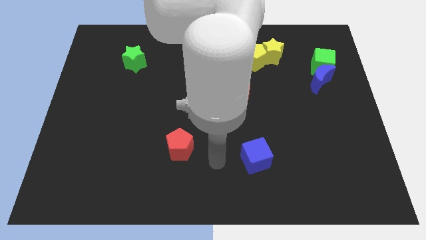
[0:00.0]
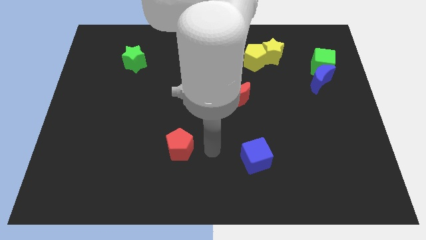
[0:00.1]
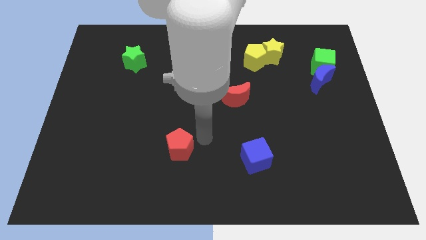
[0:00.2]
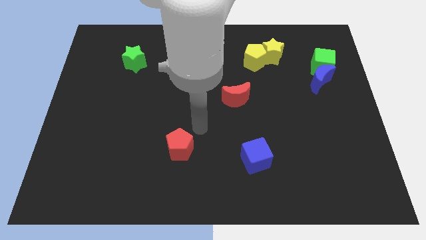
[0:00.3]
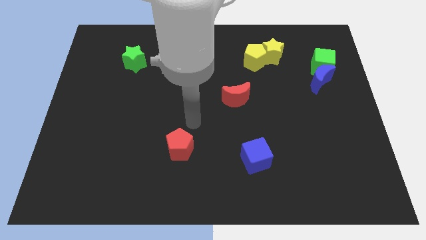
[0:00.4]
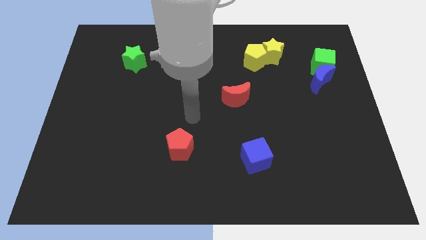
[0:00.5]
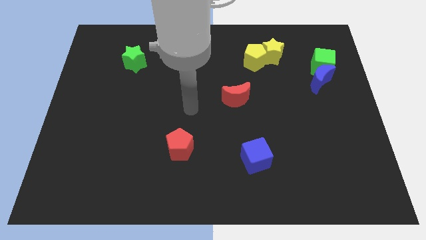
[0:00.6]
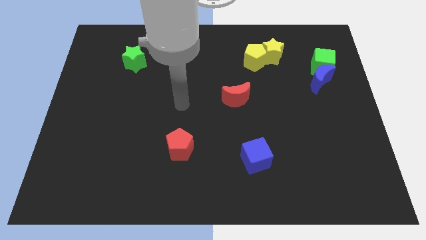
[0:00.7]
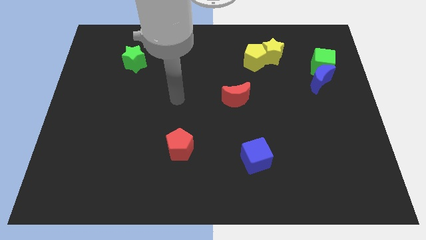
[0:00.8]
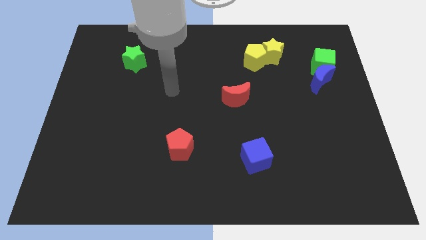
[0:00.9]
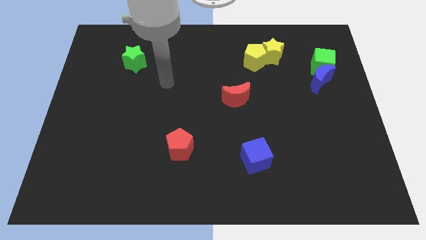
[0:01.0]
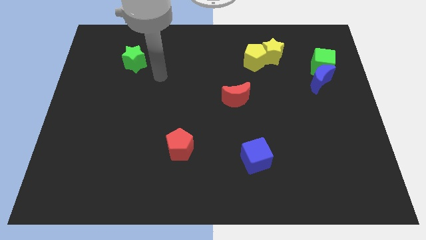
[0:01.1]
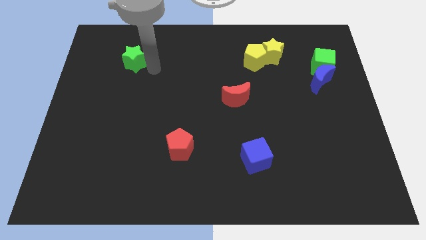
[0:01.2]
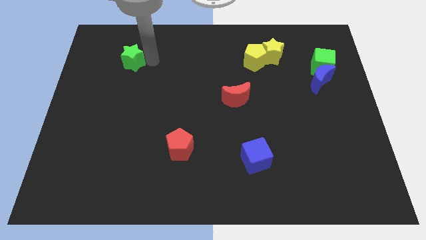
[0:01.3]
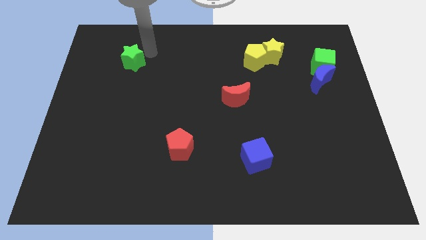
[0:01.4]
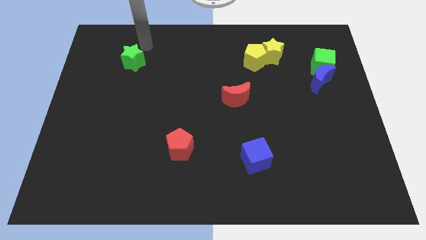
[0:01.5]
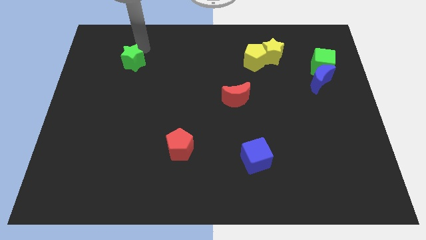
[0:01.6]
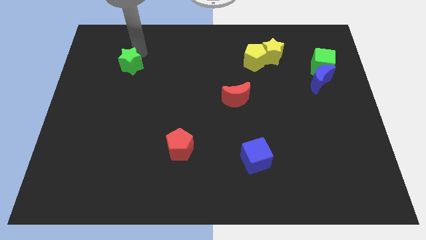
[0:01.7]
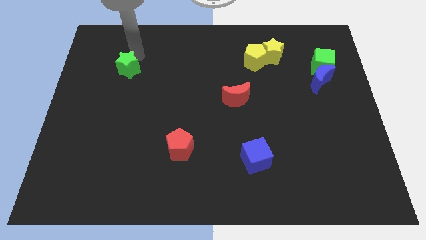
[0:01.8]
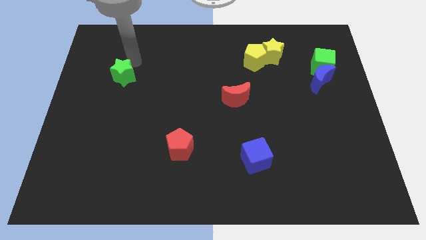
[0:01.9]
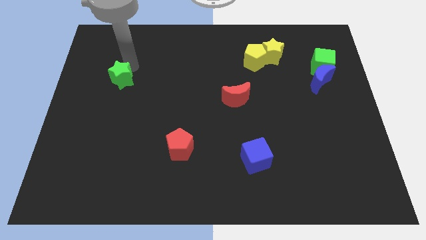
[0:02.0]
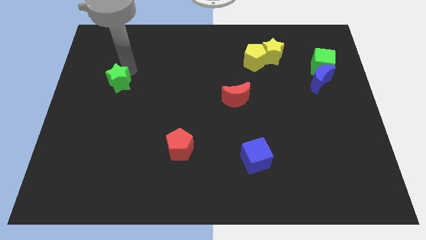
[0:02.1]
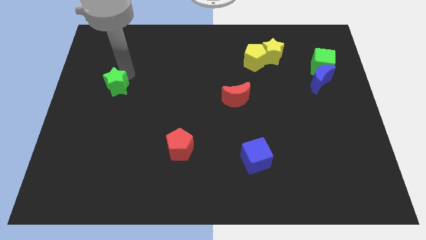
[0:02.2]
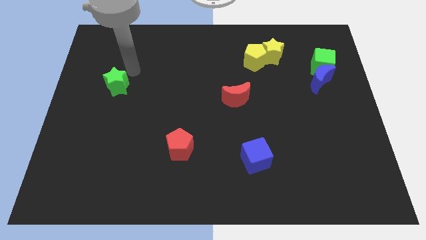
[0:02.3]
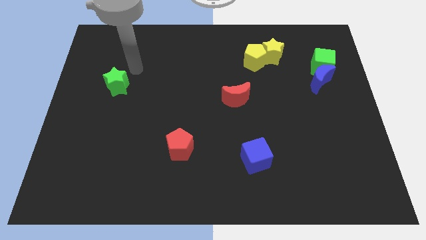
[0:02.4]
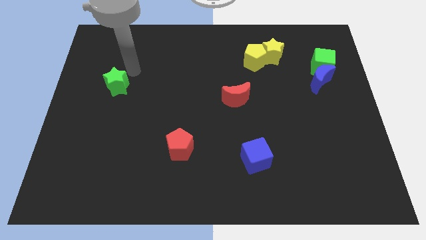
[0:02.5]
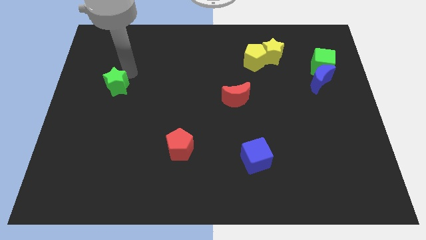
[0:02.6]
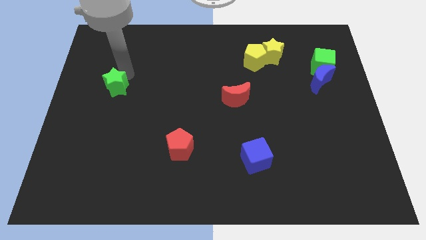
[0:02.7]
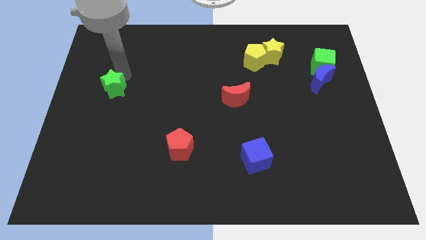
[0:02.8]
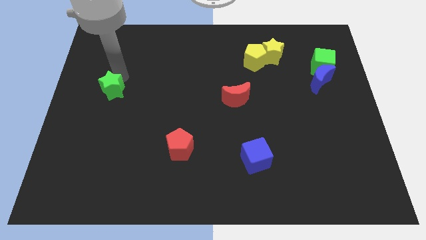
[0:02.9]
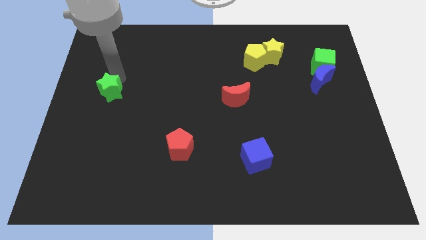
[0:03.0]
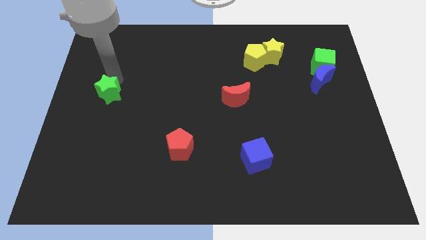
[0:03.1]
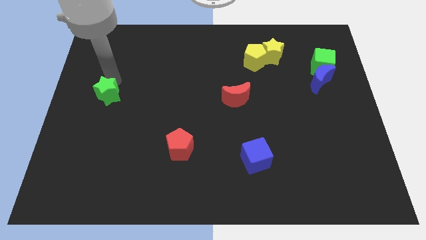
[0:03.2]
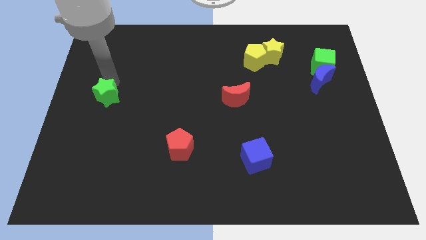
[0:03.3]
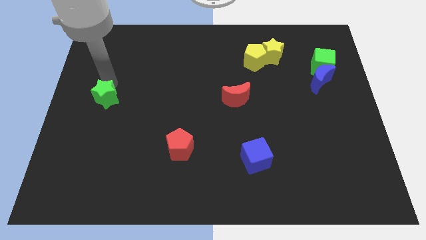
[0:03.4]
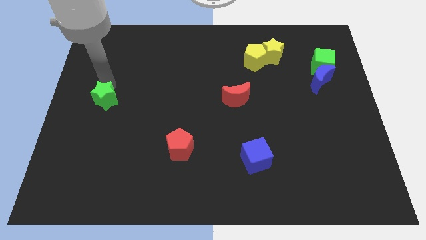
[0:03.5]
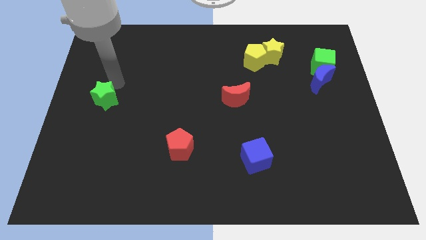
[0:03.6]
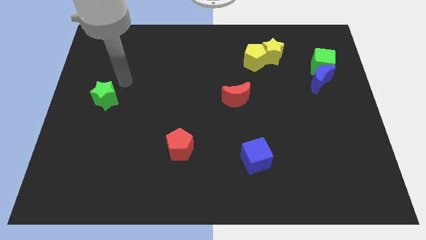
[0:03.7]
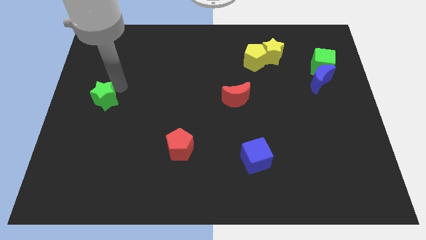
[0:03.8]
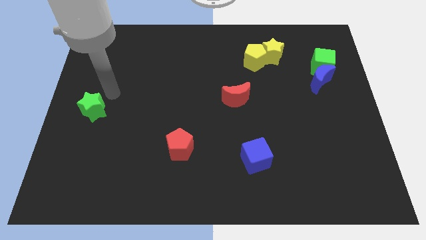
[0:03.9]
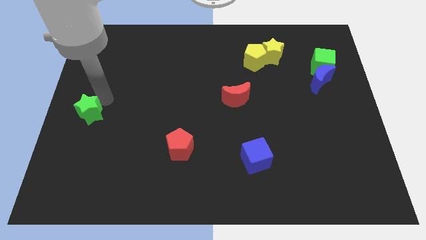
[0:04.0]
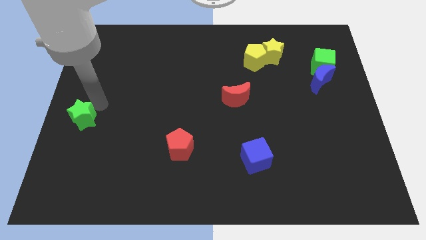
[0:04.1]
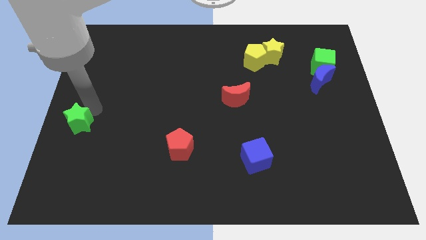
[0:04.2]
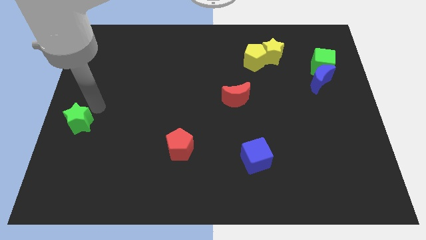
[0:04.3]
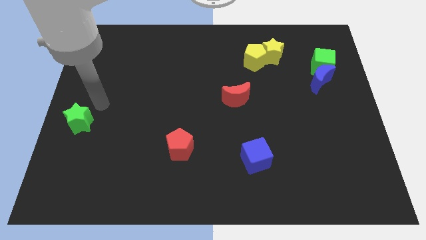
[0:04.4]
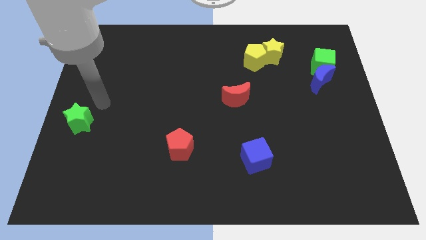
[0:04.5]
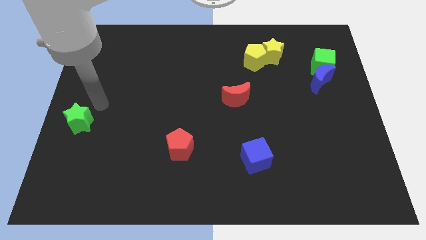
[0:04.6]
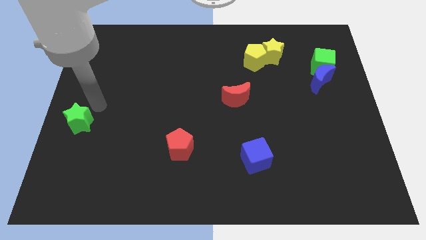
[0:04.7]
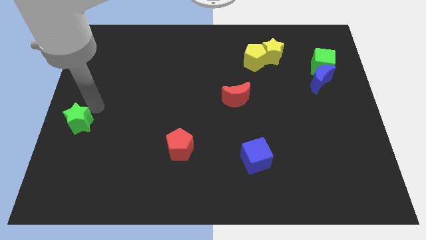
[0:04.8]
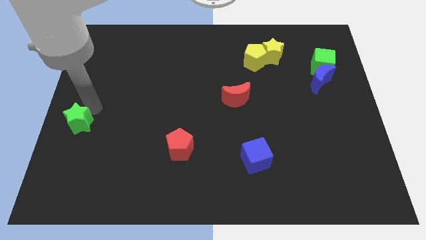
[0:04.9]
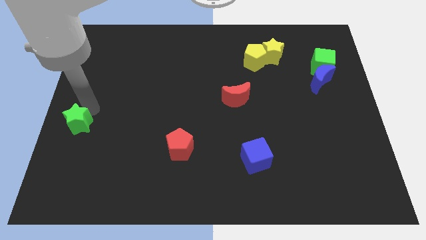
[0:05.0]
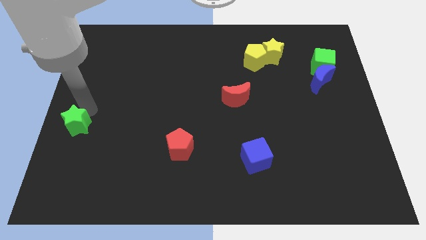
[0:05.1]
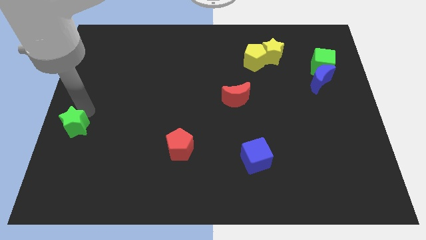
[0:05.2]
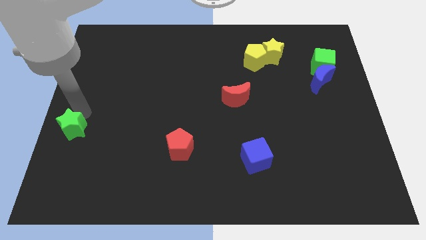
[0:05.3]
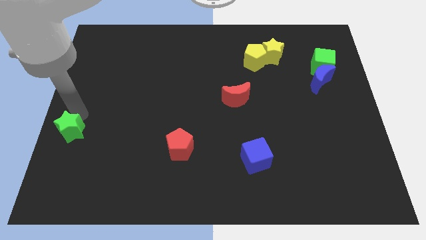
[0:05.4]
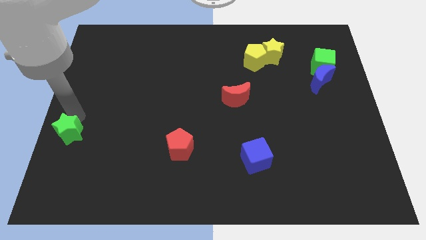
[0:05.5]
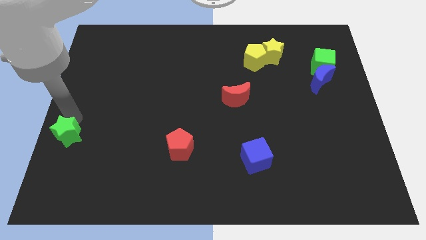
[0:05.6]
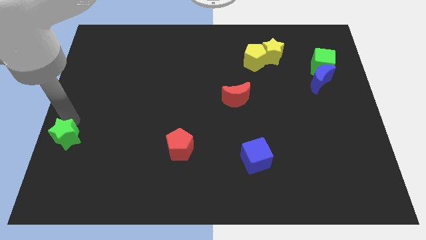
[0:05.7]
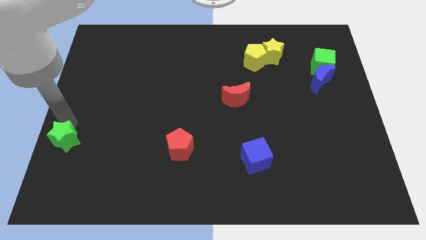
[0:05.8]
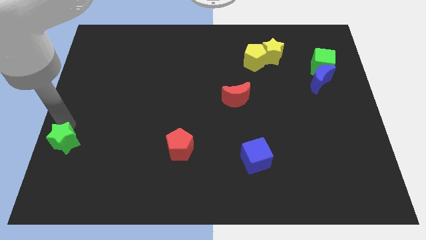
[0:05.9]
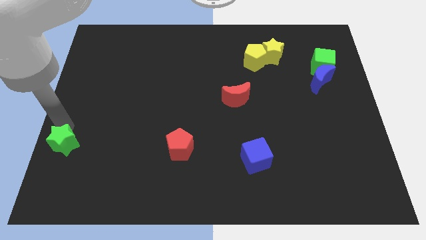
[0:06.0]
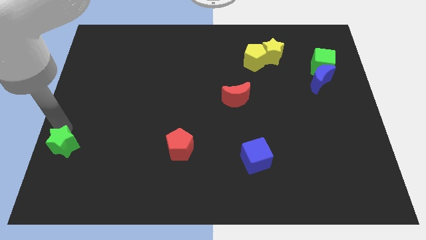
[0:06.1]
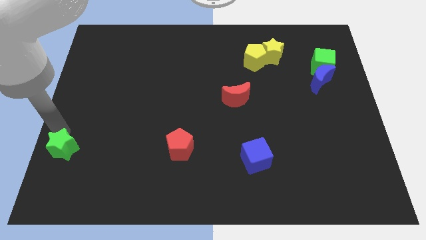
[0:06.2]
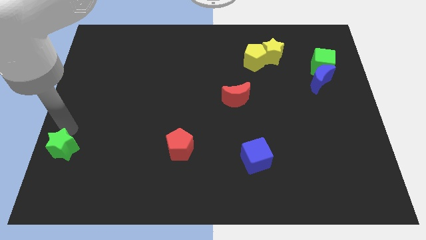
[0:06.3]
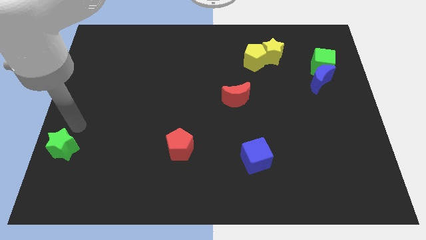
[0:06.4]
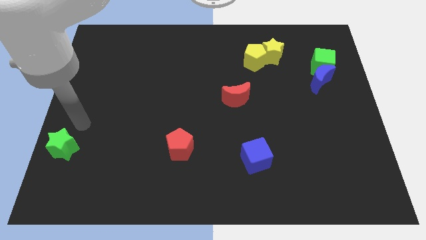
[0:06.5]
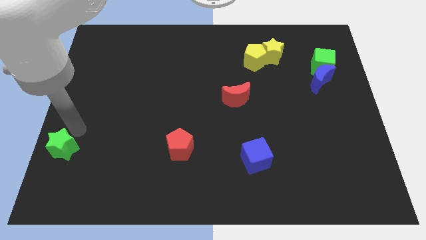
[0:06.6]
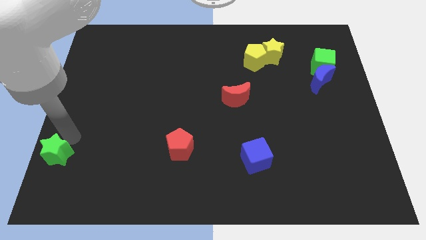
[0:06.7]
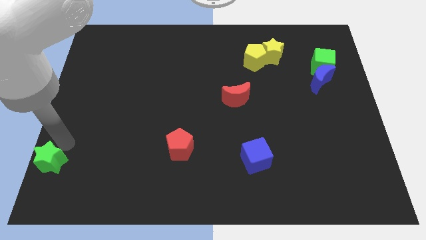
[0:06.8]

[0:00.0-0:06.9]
slide the green star to the bottom left corner

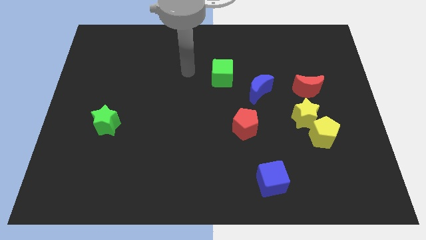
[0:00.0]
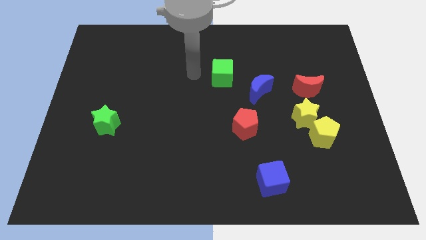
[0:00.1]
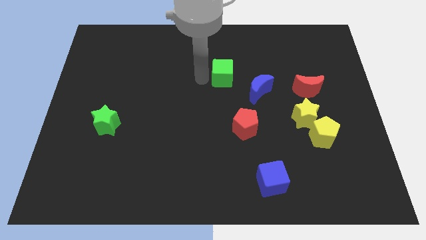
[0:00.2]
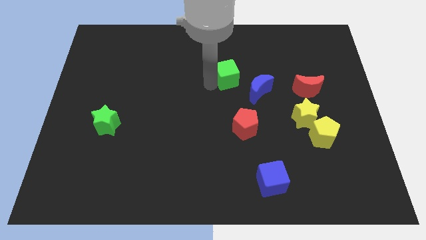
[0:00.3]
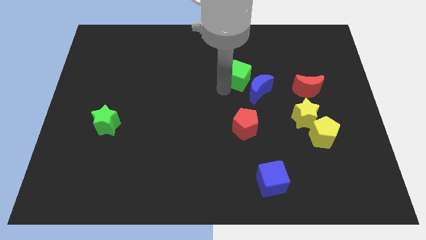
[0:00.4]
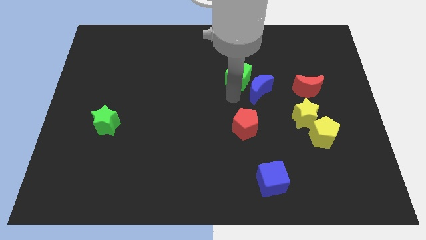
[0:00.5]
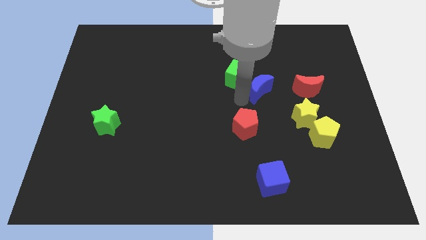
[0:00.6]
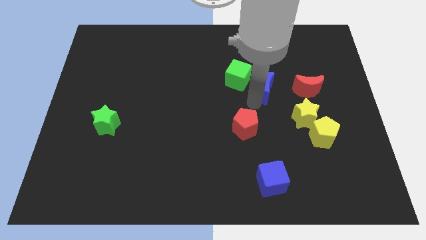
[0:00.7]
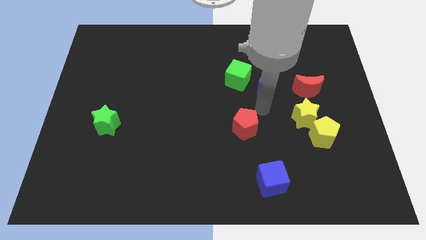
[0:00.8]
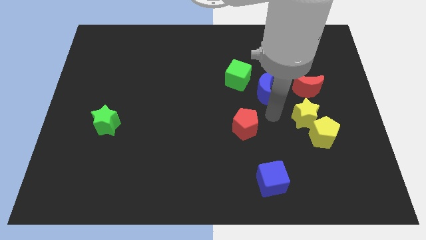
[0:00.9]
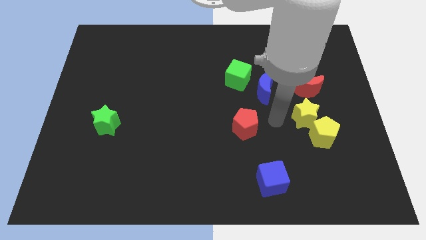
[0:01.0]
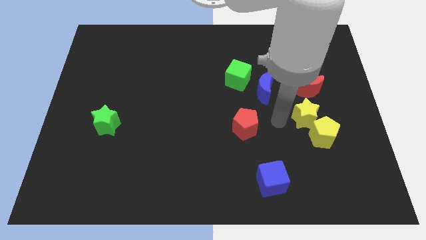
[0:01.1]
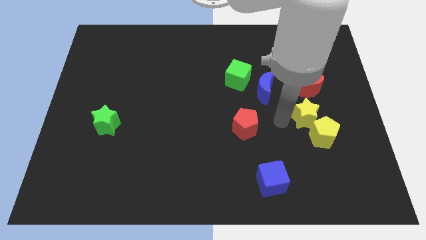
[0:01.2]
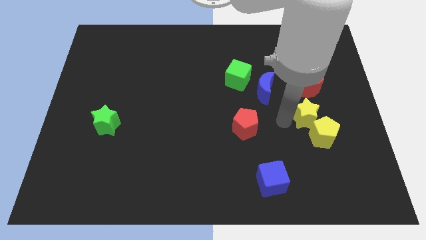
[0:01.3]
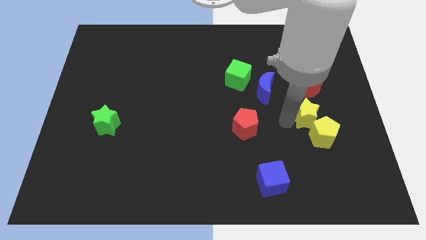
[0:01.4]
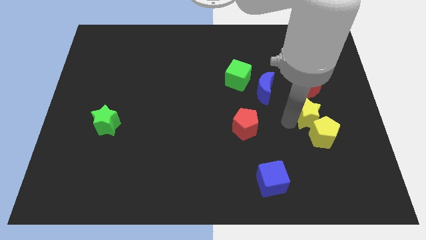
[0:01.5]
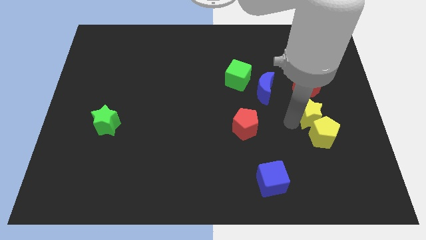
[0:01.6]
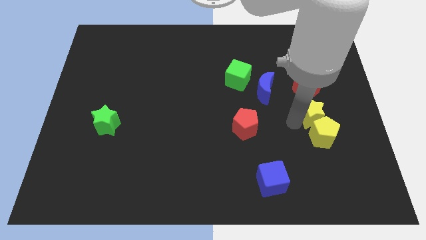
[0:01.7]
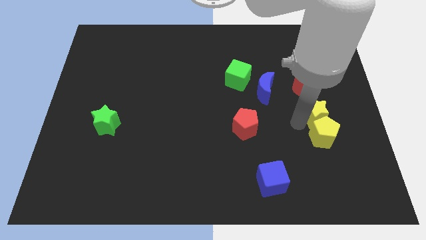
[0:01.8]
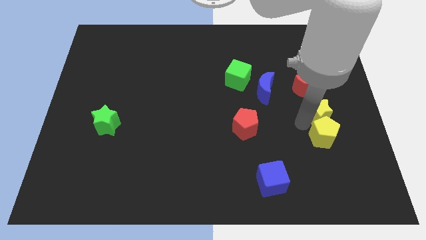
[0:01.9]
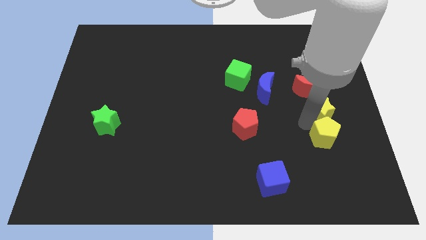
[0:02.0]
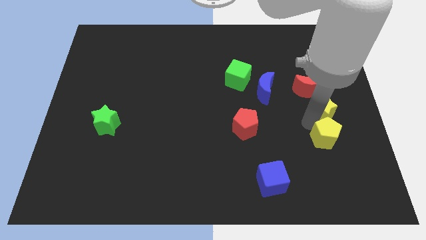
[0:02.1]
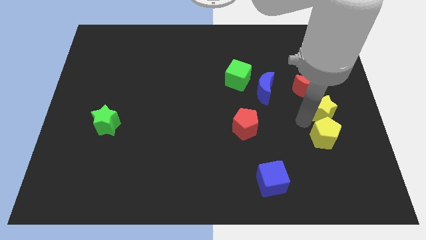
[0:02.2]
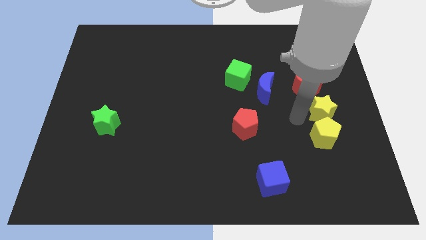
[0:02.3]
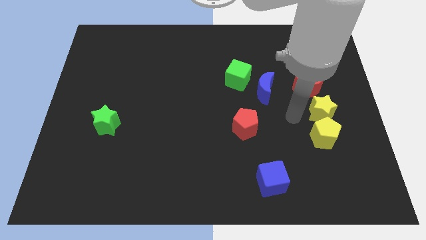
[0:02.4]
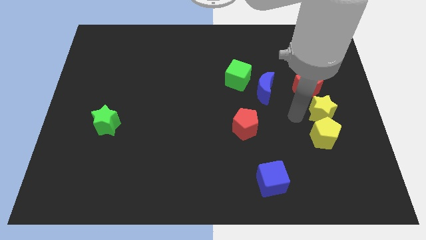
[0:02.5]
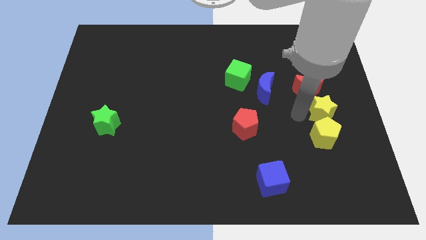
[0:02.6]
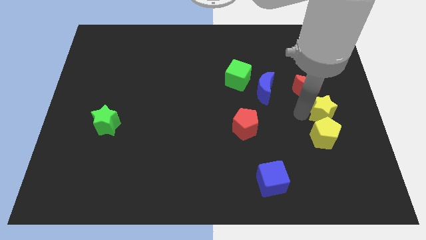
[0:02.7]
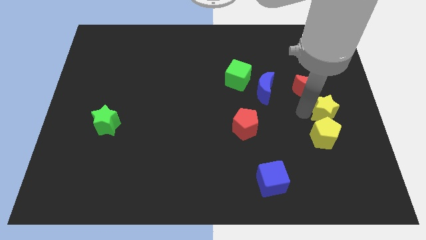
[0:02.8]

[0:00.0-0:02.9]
move the yellow star to the center right
